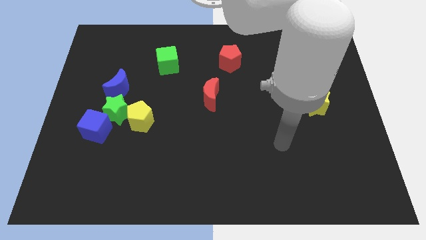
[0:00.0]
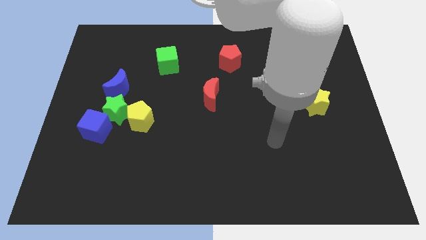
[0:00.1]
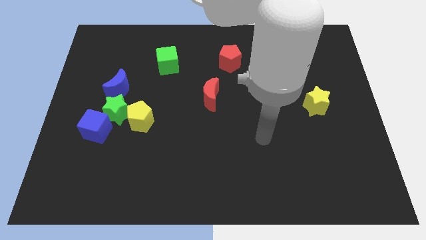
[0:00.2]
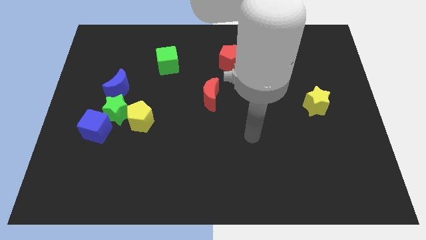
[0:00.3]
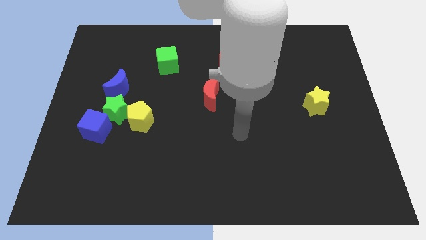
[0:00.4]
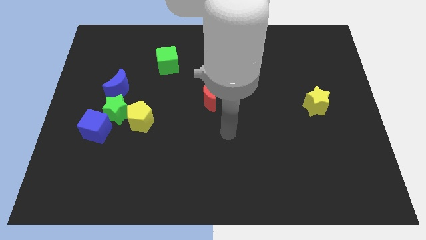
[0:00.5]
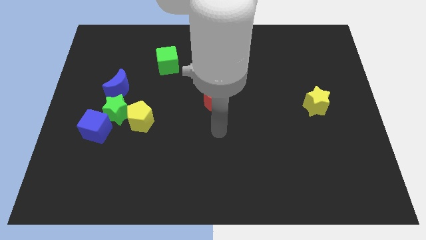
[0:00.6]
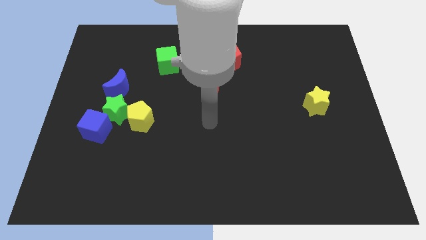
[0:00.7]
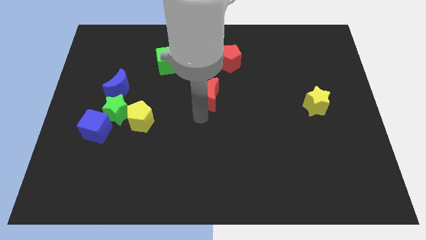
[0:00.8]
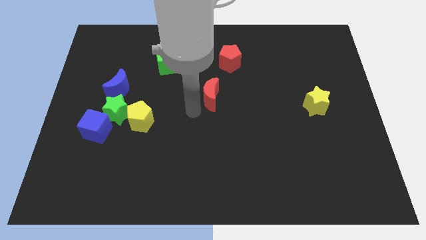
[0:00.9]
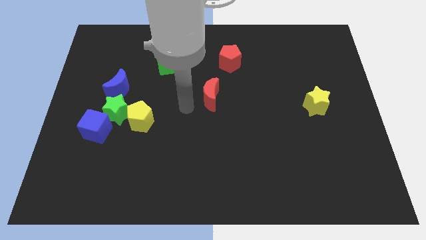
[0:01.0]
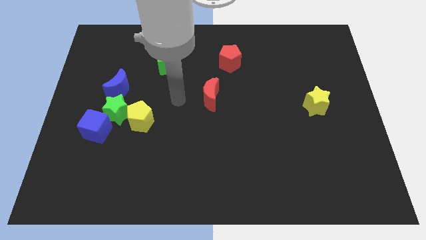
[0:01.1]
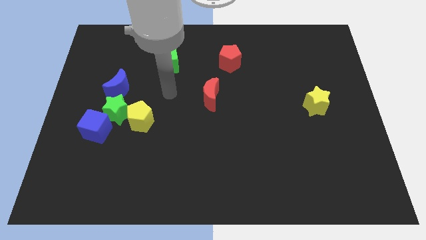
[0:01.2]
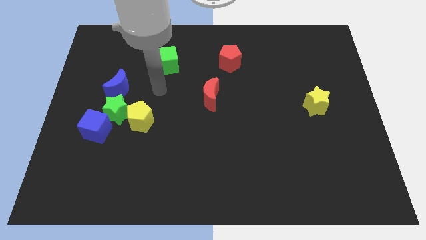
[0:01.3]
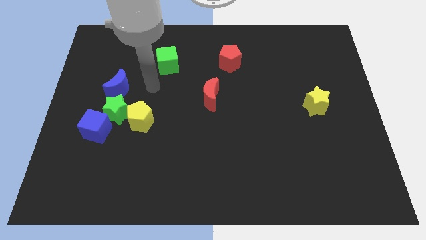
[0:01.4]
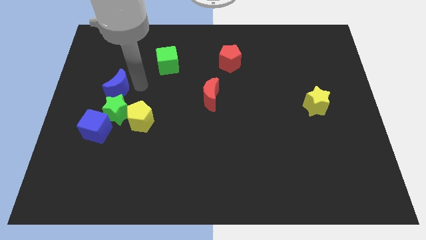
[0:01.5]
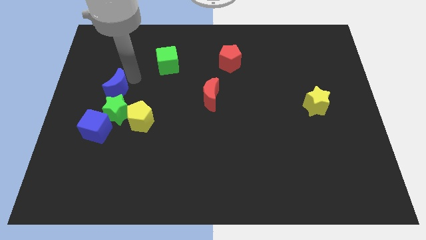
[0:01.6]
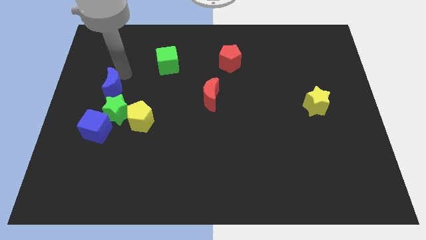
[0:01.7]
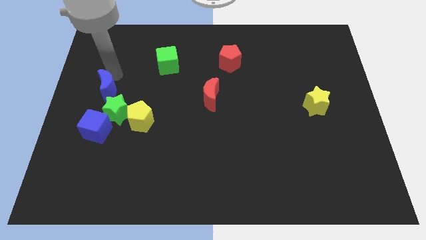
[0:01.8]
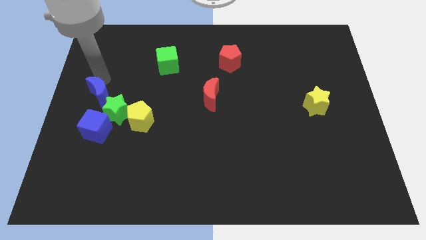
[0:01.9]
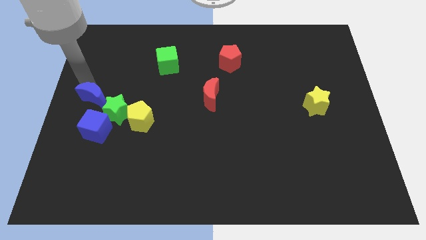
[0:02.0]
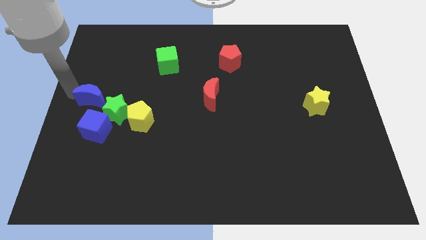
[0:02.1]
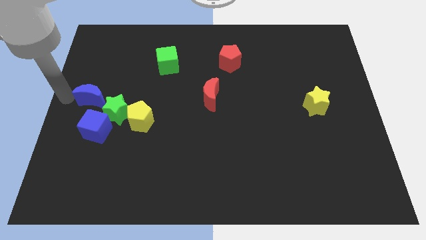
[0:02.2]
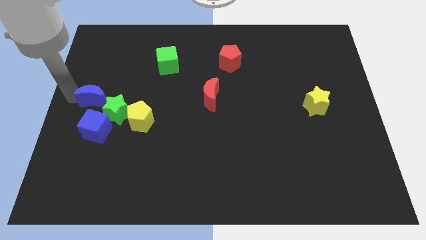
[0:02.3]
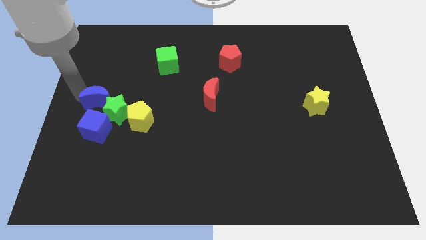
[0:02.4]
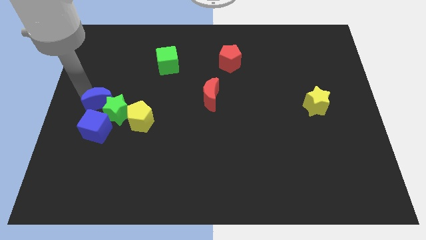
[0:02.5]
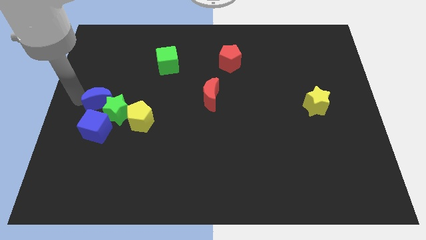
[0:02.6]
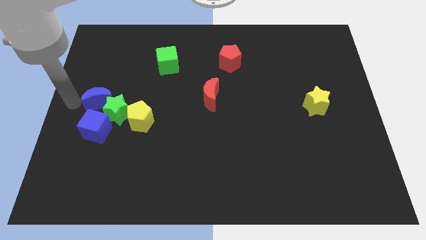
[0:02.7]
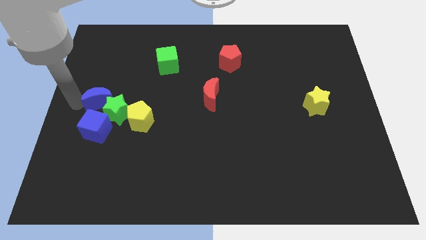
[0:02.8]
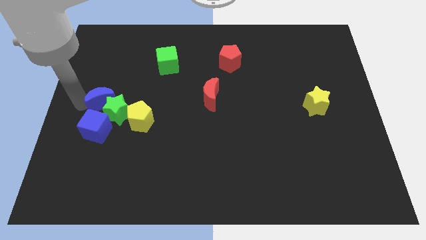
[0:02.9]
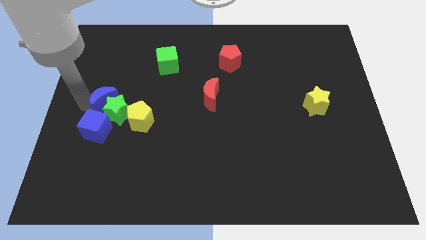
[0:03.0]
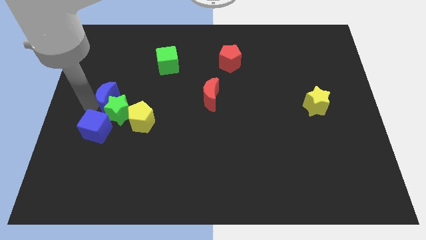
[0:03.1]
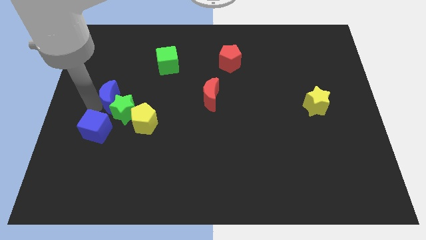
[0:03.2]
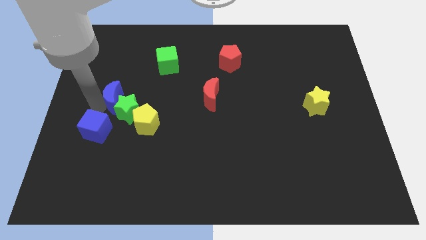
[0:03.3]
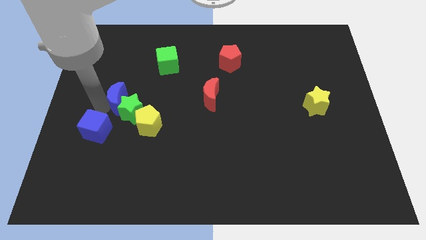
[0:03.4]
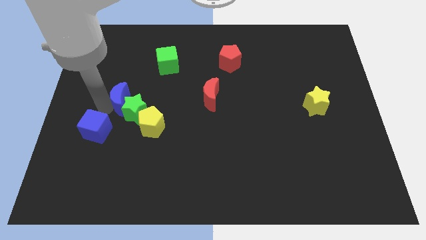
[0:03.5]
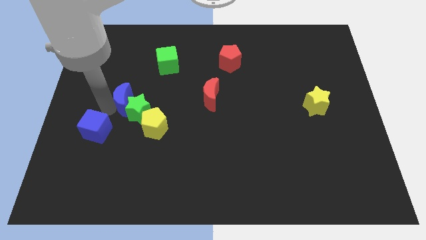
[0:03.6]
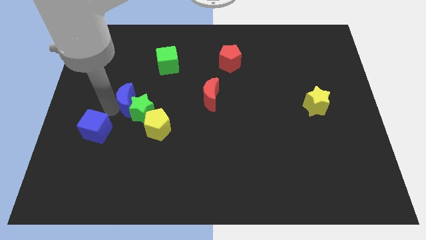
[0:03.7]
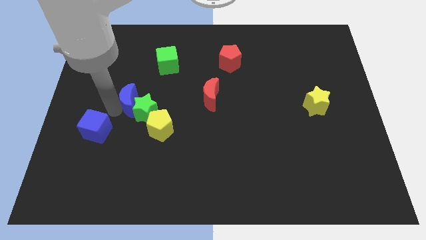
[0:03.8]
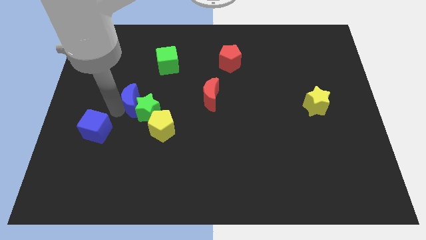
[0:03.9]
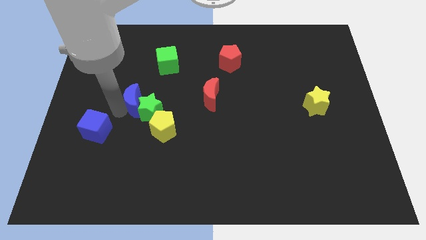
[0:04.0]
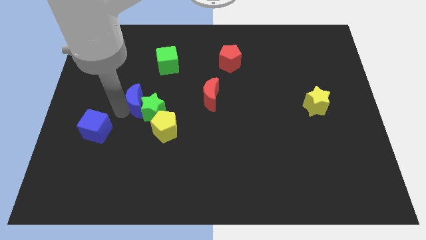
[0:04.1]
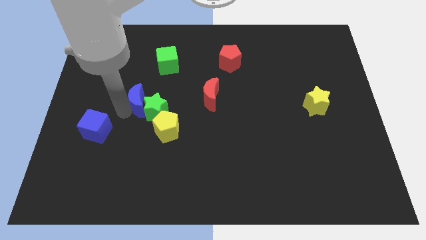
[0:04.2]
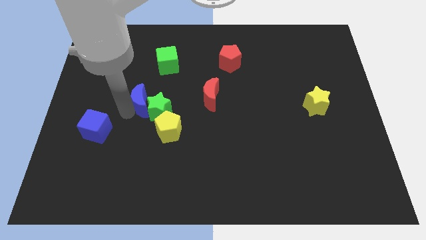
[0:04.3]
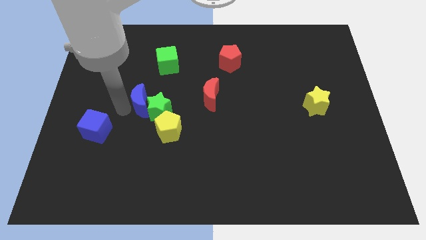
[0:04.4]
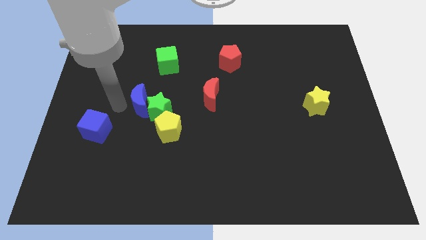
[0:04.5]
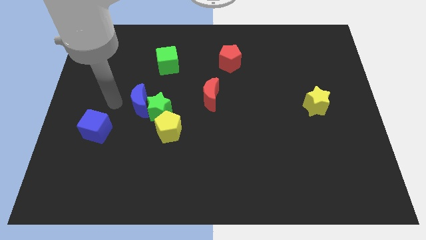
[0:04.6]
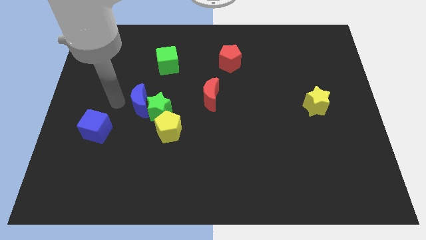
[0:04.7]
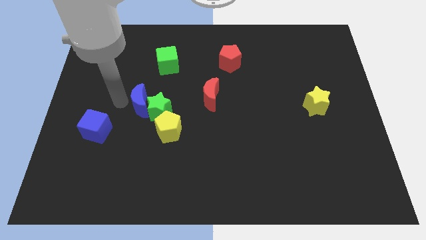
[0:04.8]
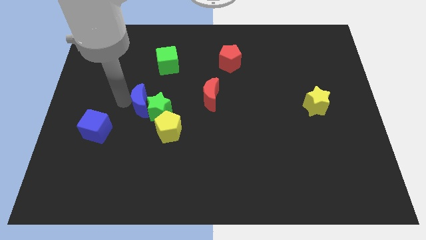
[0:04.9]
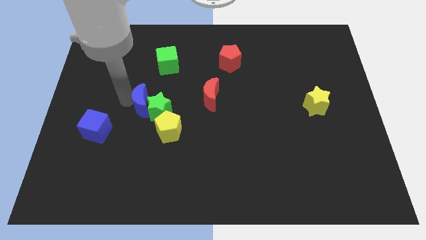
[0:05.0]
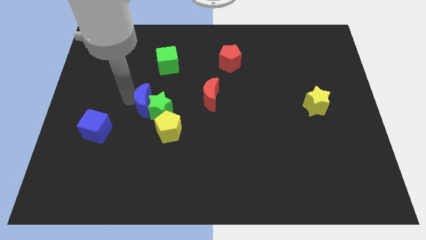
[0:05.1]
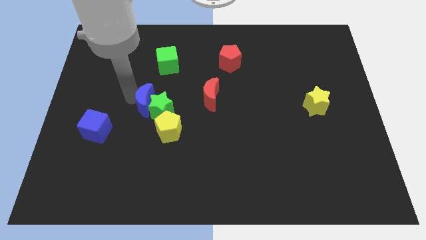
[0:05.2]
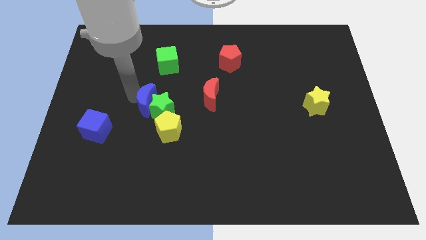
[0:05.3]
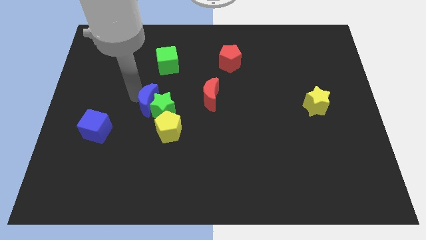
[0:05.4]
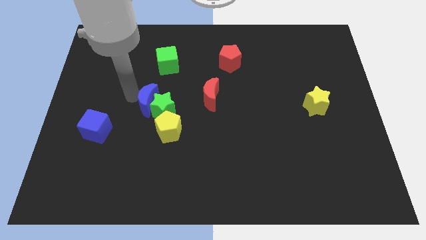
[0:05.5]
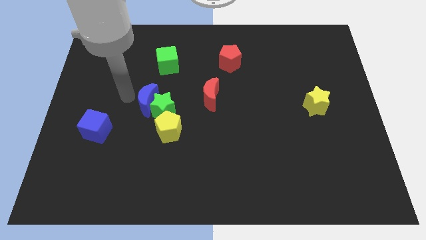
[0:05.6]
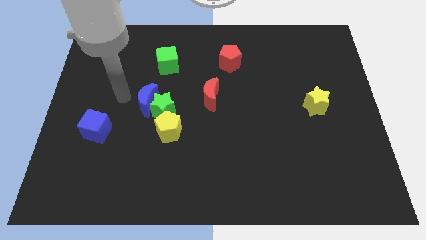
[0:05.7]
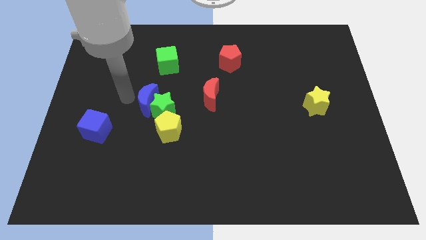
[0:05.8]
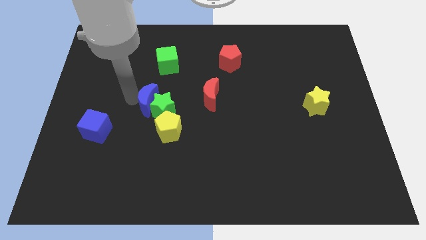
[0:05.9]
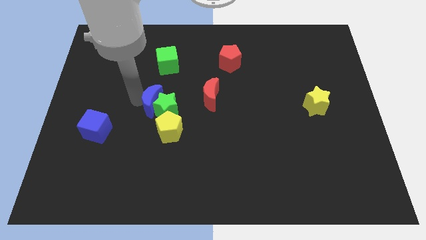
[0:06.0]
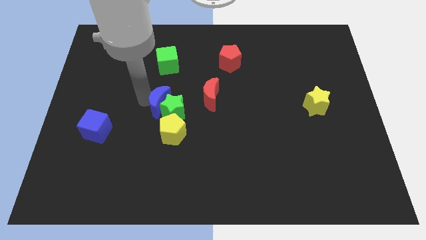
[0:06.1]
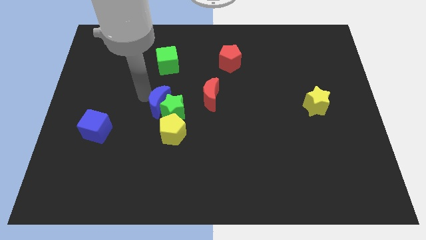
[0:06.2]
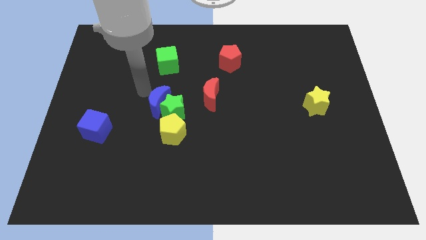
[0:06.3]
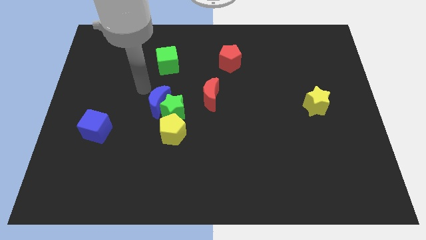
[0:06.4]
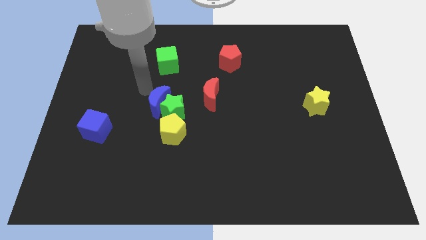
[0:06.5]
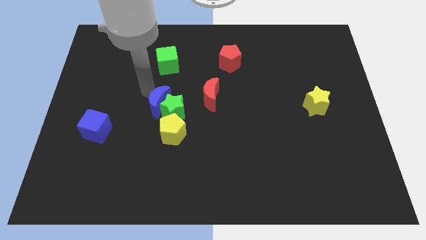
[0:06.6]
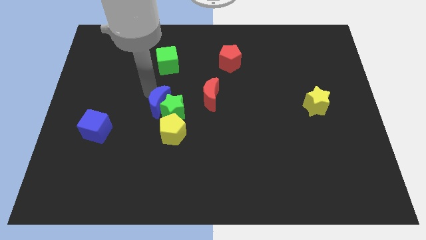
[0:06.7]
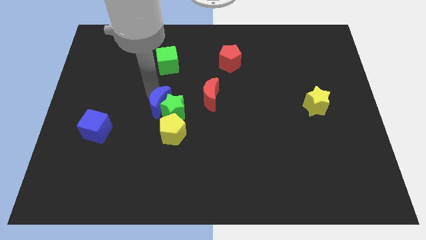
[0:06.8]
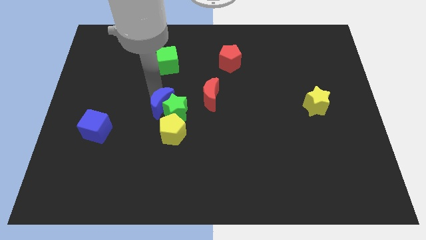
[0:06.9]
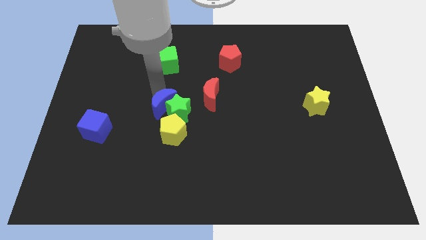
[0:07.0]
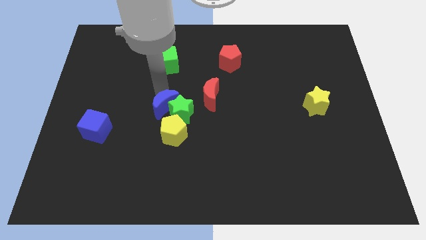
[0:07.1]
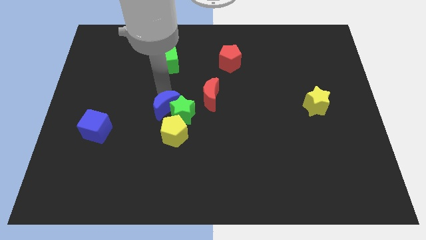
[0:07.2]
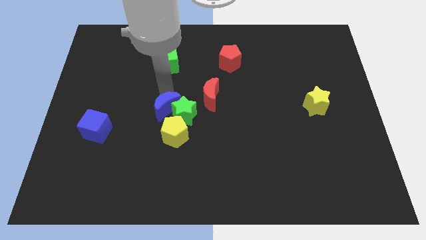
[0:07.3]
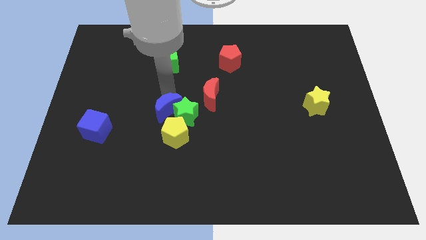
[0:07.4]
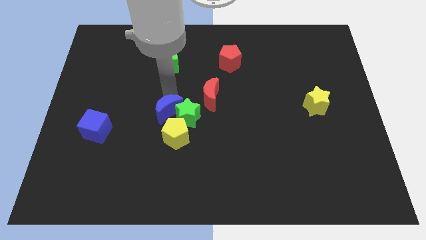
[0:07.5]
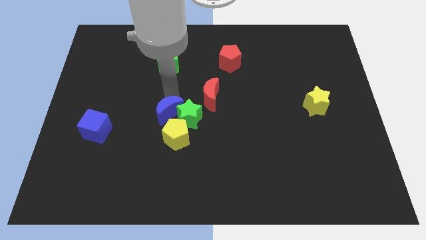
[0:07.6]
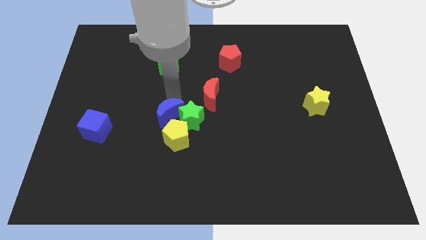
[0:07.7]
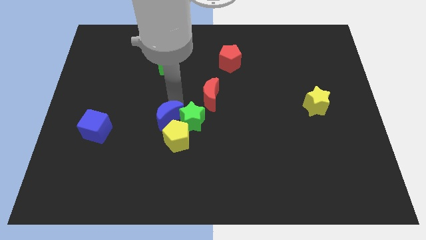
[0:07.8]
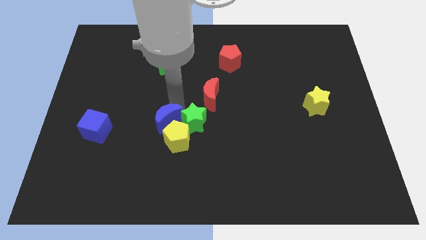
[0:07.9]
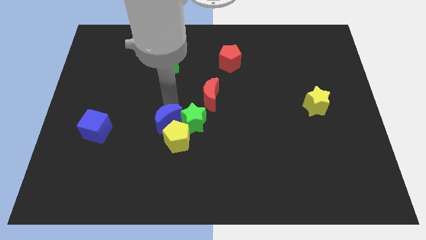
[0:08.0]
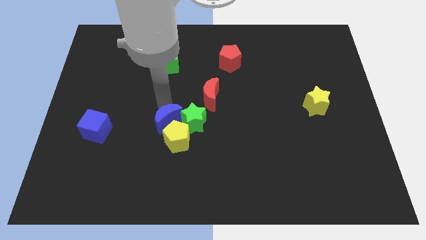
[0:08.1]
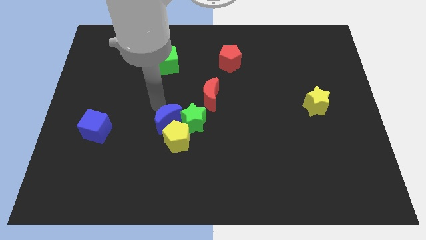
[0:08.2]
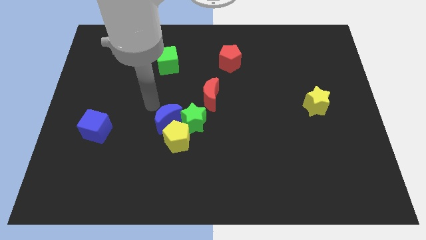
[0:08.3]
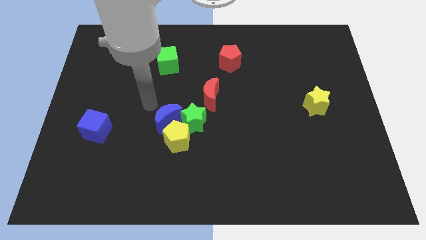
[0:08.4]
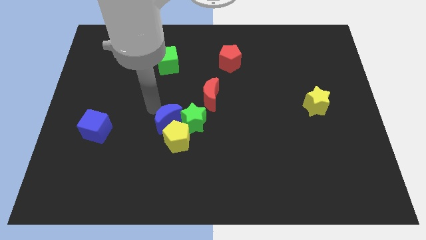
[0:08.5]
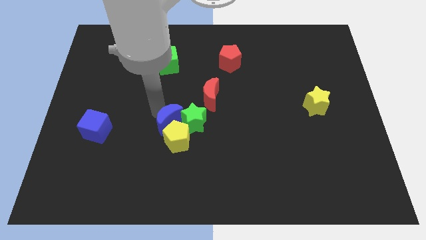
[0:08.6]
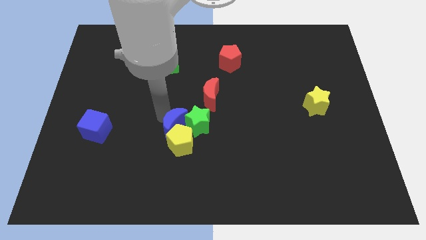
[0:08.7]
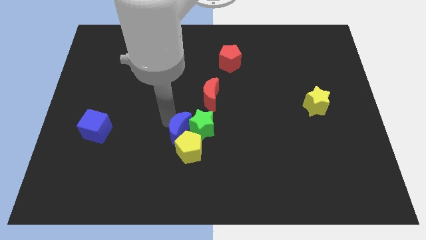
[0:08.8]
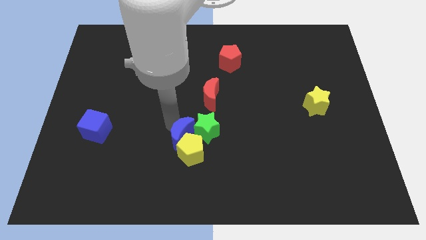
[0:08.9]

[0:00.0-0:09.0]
push the blue moon downwards and right diagonally
